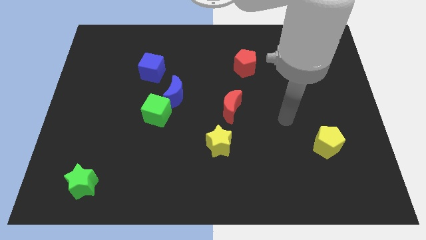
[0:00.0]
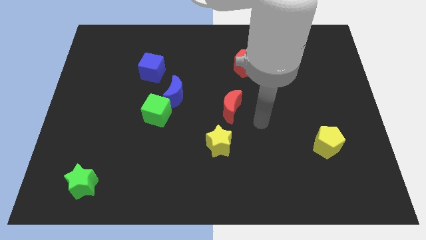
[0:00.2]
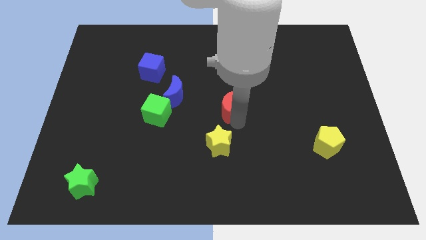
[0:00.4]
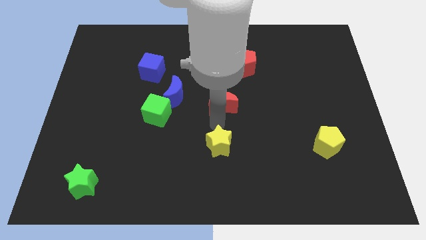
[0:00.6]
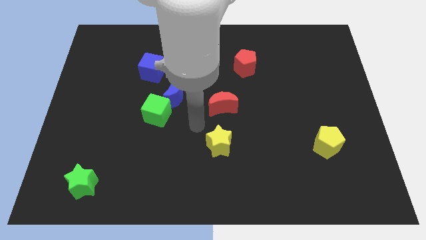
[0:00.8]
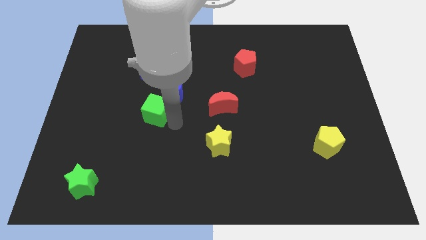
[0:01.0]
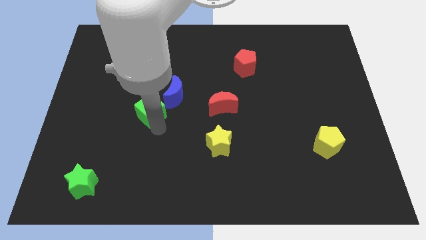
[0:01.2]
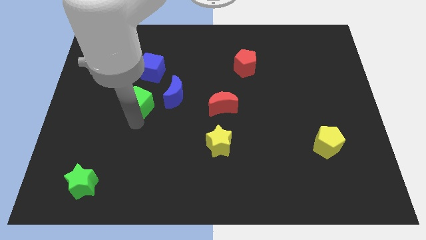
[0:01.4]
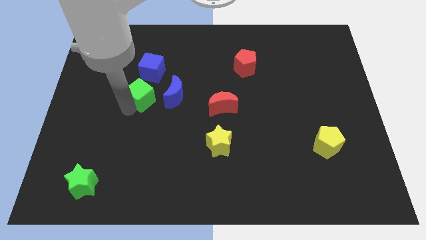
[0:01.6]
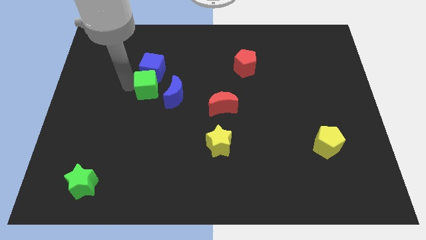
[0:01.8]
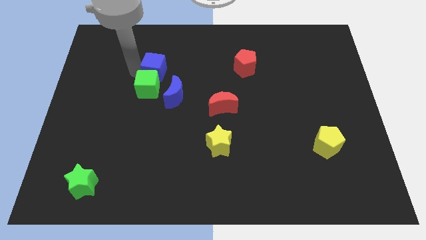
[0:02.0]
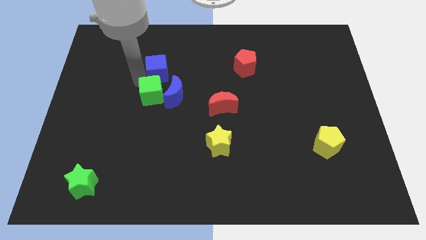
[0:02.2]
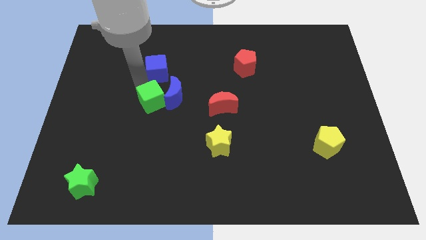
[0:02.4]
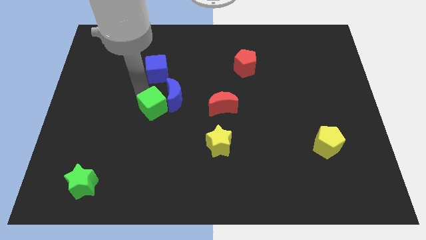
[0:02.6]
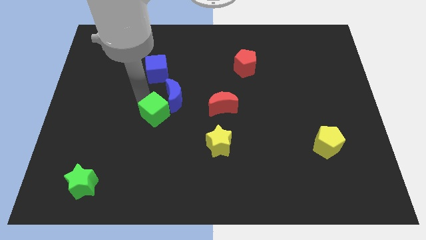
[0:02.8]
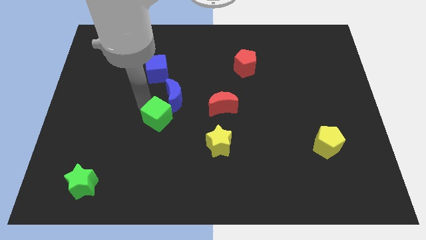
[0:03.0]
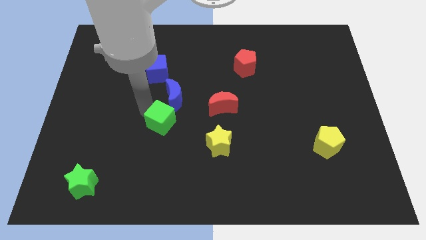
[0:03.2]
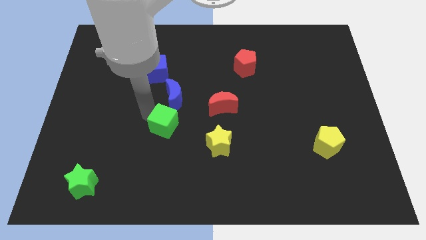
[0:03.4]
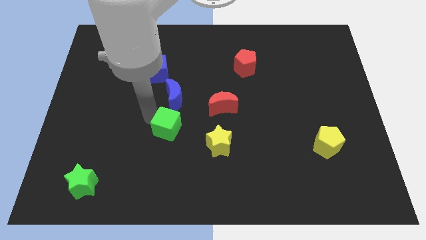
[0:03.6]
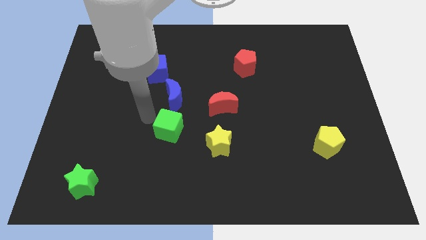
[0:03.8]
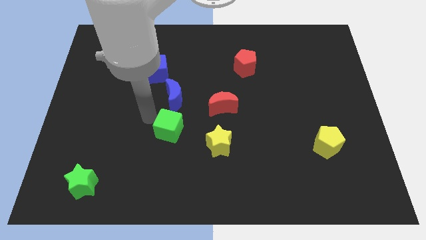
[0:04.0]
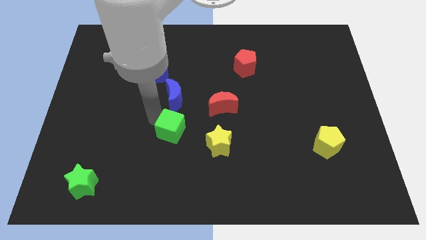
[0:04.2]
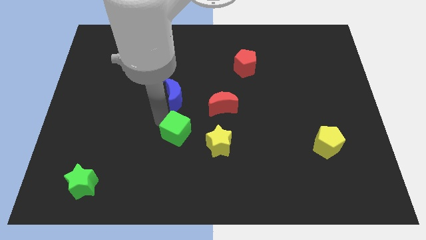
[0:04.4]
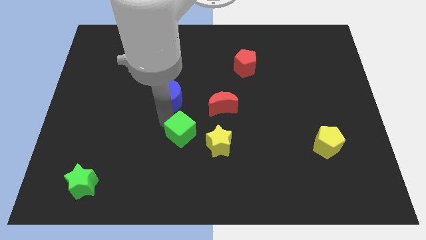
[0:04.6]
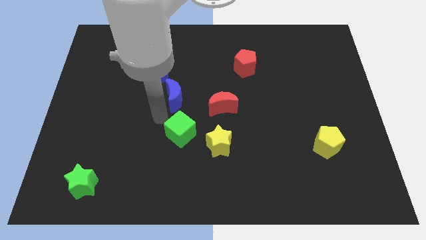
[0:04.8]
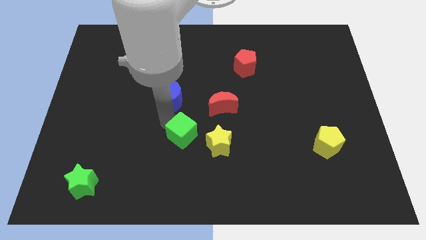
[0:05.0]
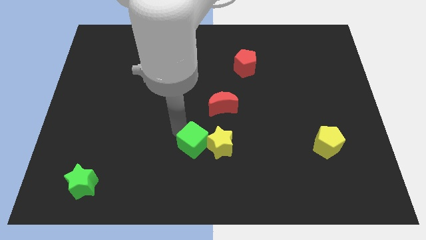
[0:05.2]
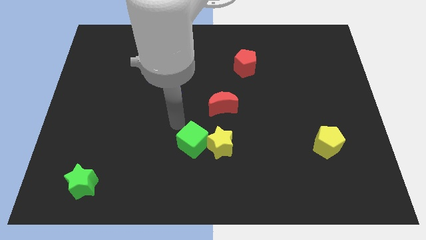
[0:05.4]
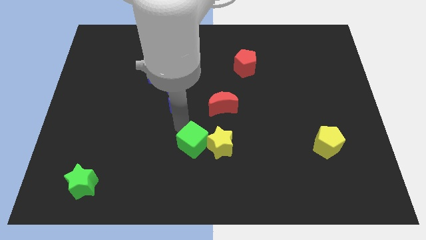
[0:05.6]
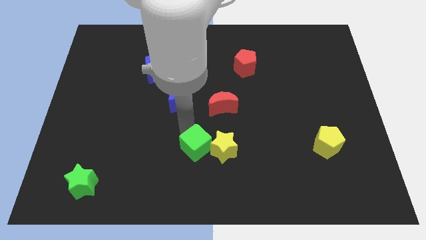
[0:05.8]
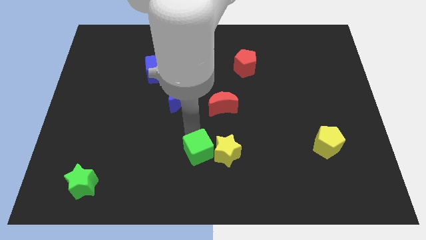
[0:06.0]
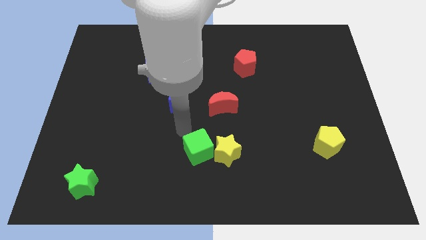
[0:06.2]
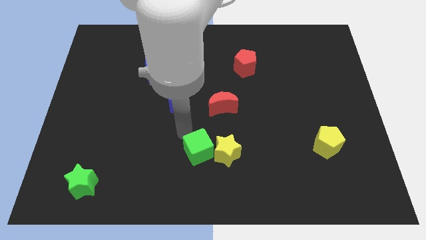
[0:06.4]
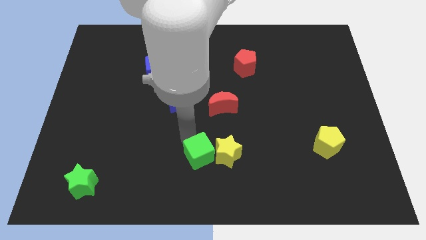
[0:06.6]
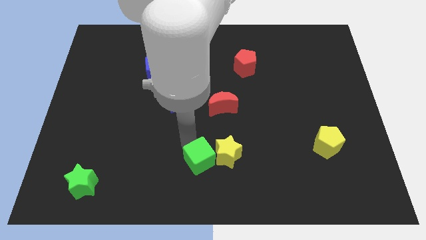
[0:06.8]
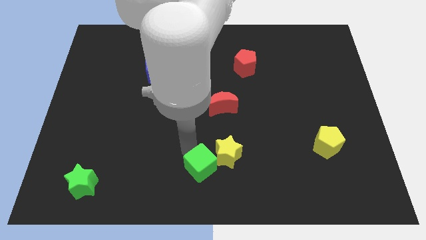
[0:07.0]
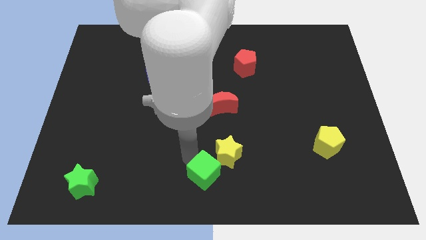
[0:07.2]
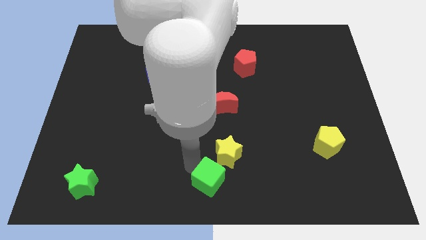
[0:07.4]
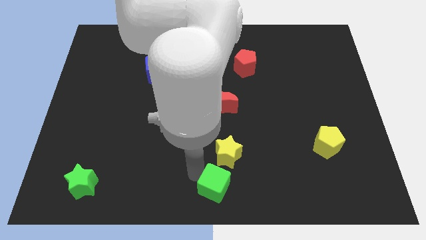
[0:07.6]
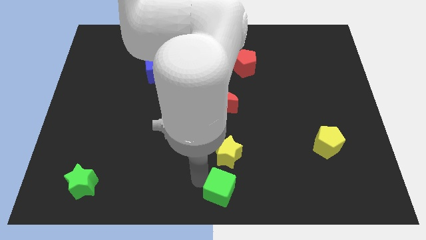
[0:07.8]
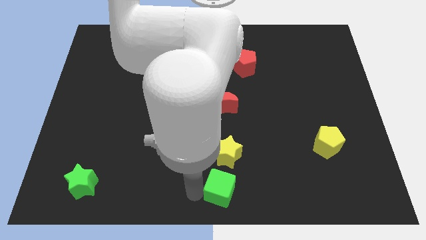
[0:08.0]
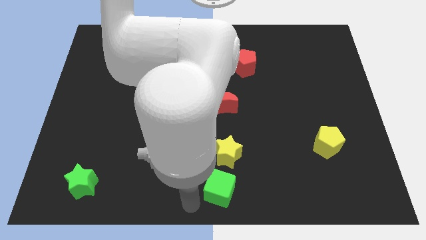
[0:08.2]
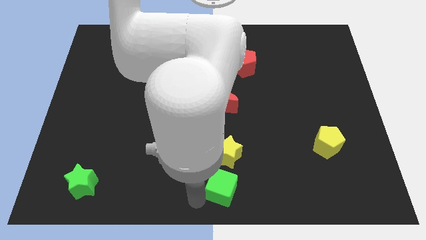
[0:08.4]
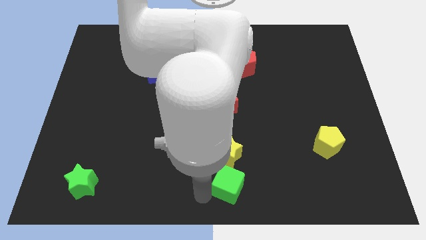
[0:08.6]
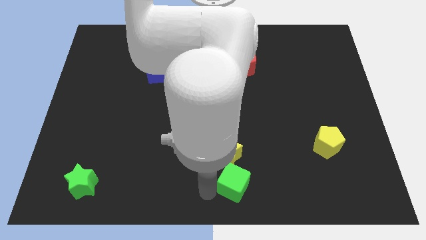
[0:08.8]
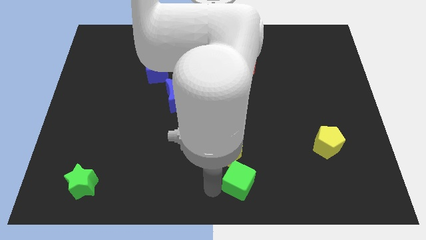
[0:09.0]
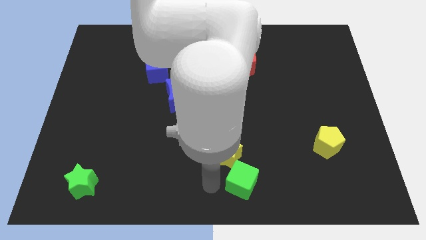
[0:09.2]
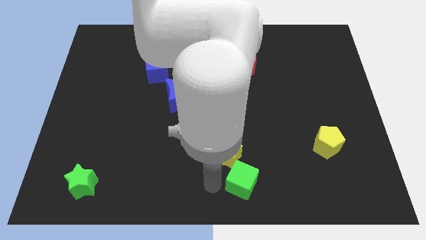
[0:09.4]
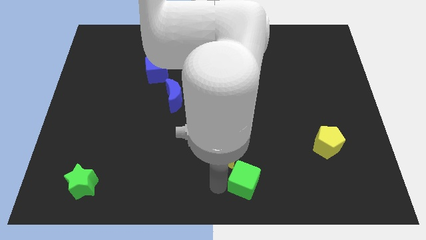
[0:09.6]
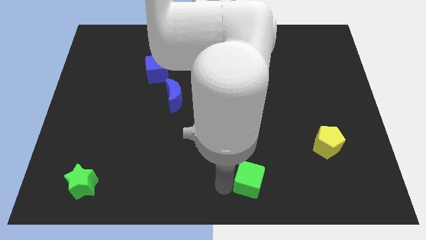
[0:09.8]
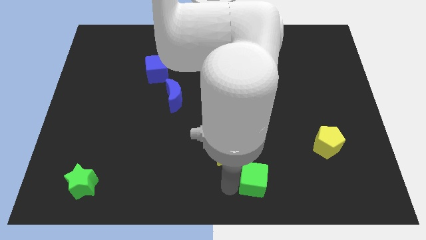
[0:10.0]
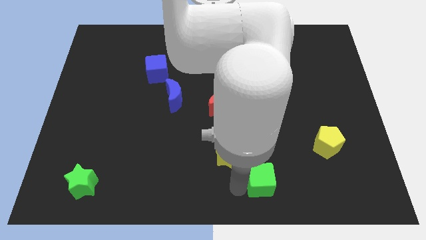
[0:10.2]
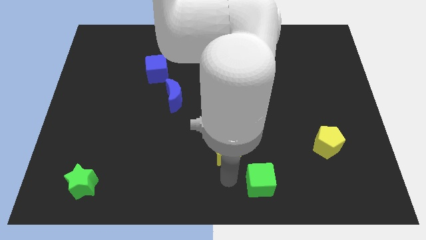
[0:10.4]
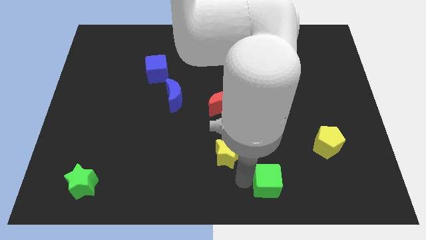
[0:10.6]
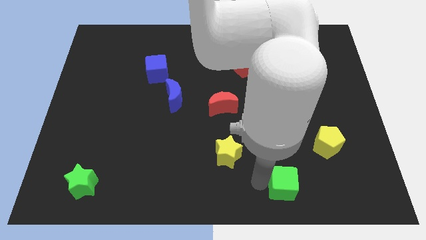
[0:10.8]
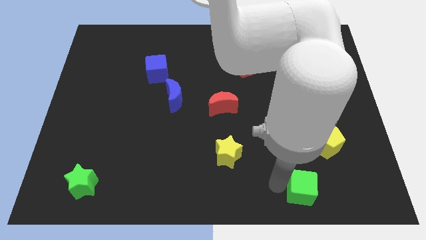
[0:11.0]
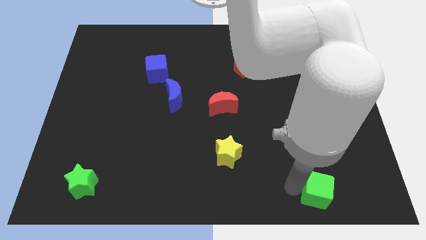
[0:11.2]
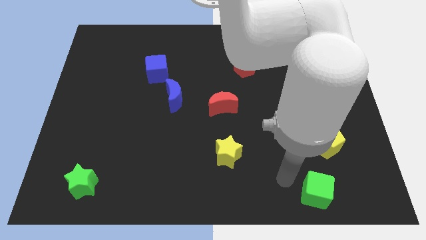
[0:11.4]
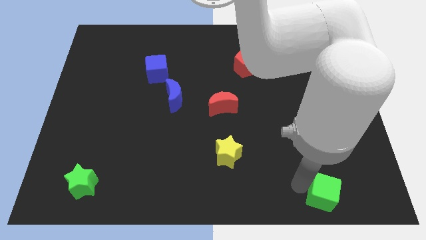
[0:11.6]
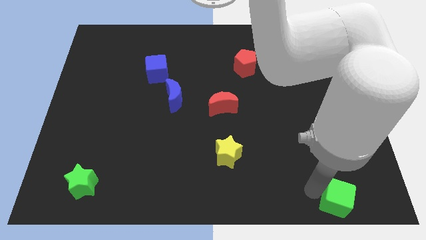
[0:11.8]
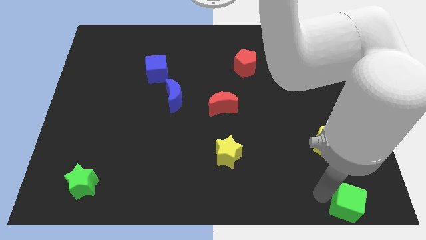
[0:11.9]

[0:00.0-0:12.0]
slide the green cube to the bottom right
